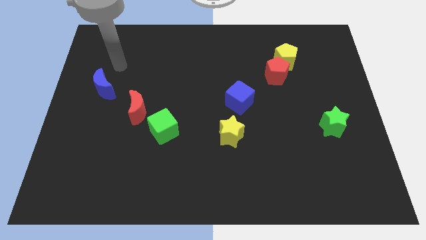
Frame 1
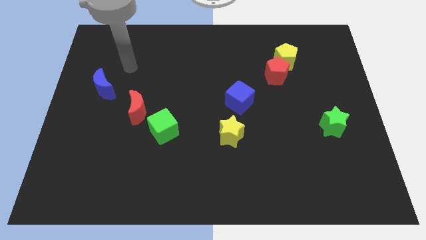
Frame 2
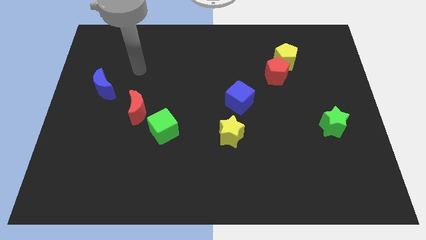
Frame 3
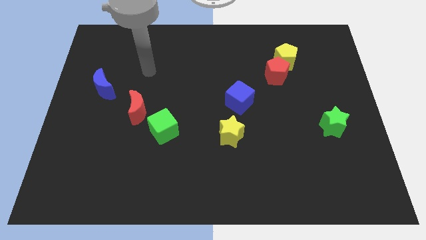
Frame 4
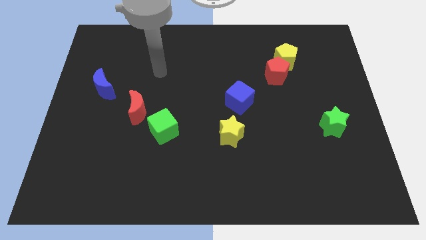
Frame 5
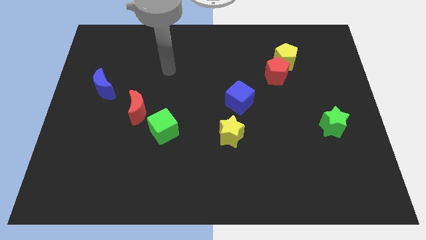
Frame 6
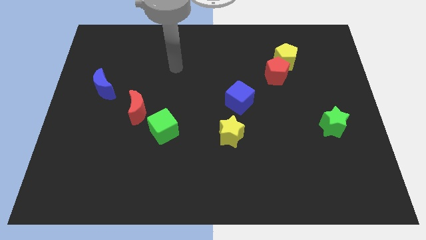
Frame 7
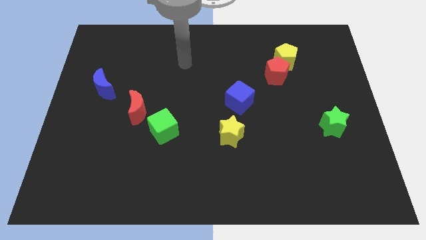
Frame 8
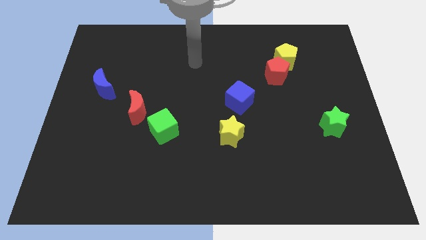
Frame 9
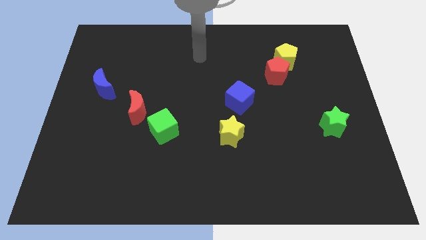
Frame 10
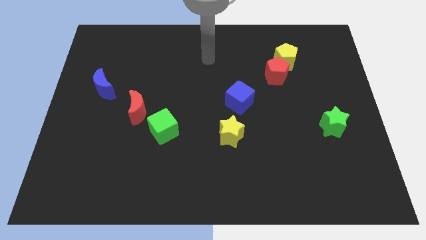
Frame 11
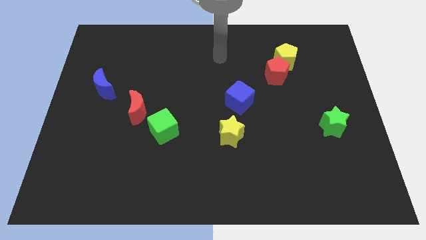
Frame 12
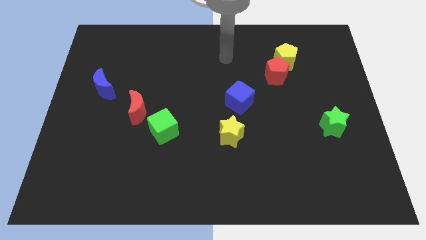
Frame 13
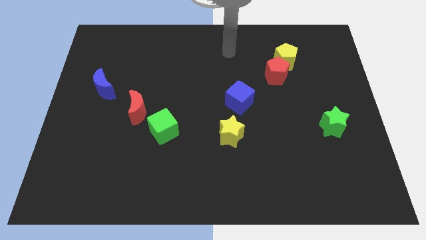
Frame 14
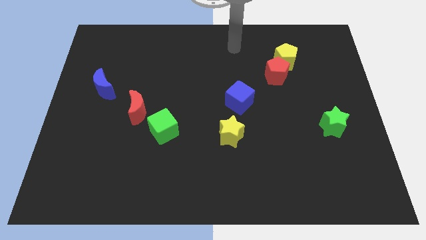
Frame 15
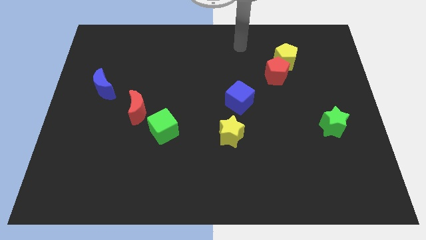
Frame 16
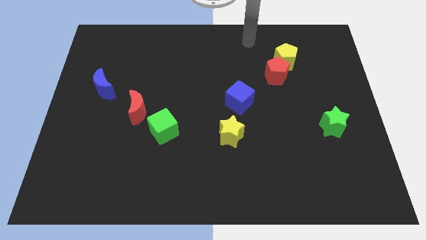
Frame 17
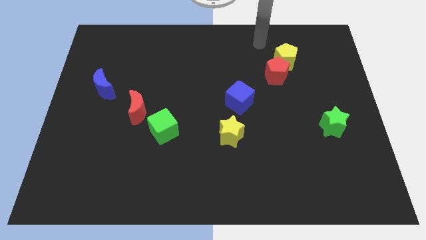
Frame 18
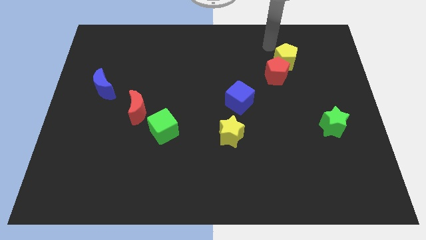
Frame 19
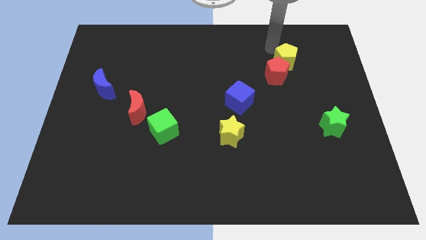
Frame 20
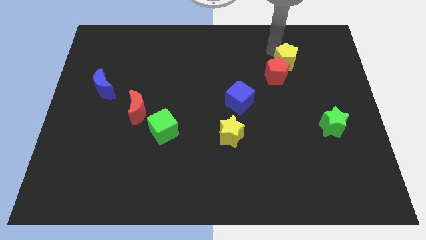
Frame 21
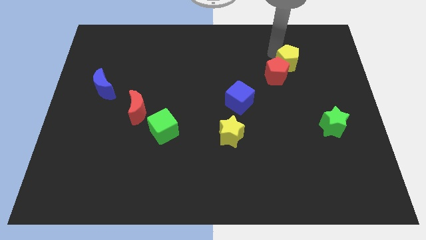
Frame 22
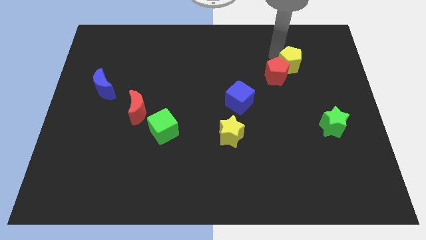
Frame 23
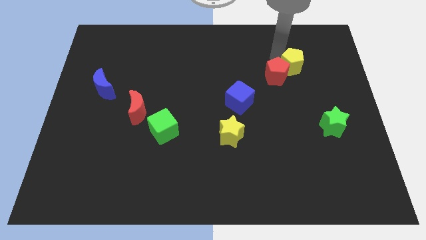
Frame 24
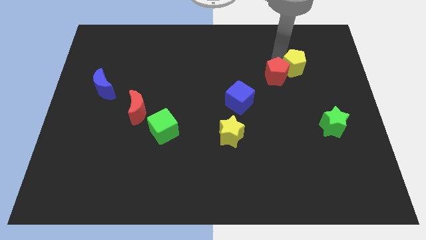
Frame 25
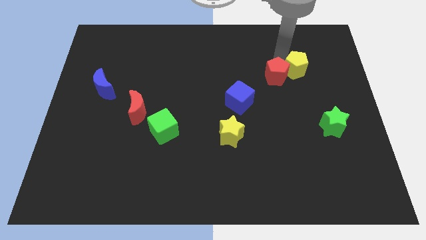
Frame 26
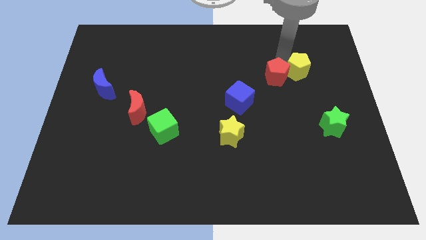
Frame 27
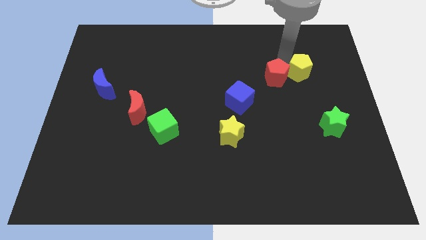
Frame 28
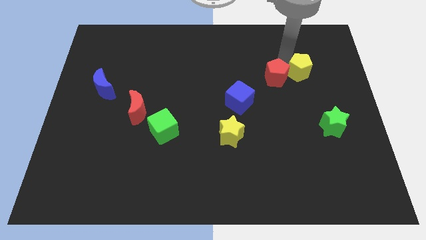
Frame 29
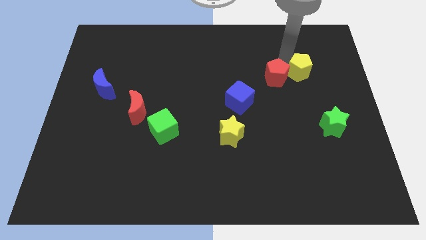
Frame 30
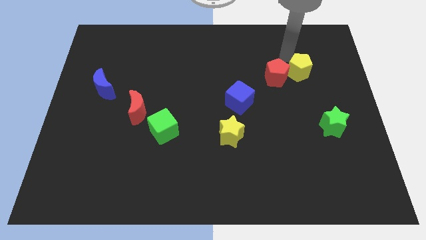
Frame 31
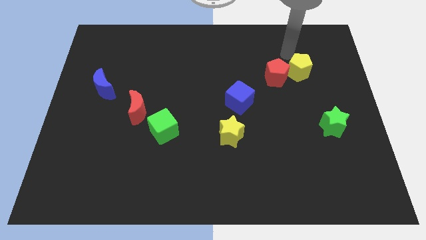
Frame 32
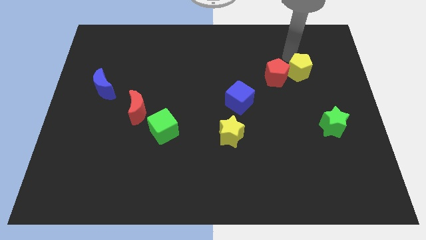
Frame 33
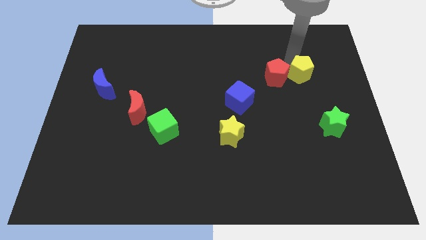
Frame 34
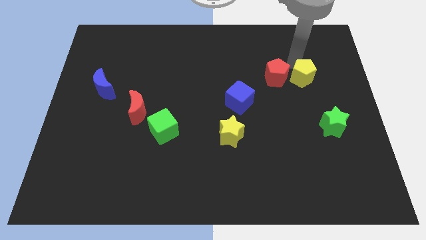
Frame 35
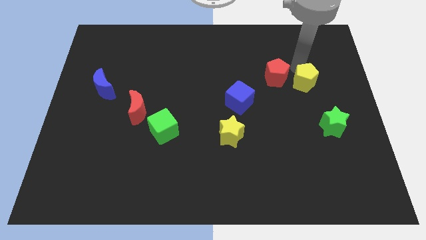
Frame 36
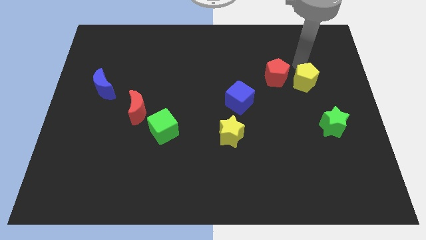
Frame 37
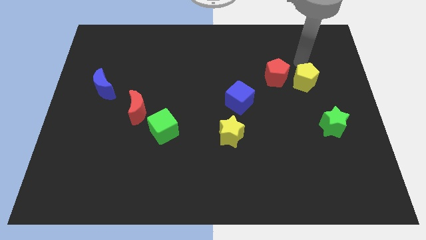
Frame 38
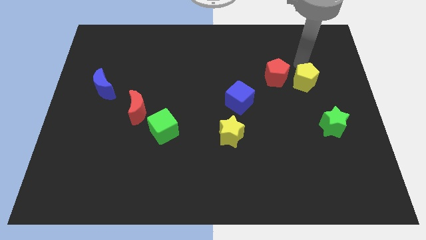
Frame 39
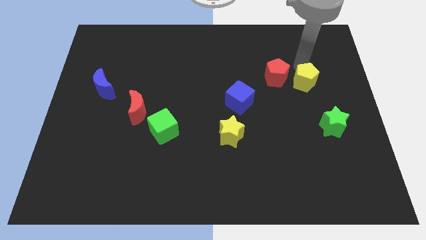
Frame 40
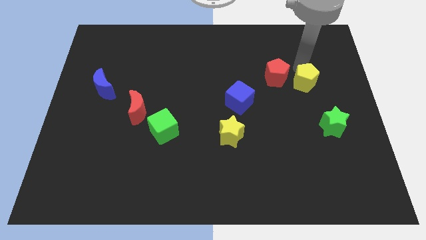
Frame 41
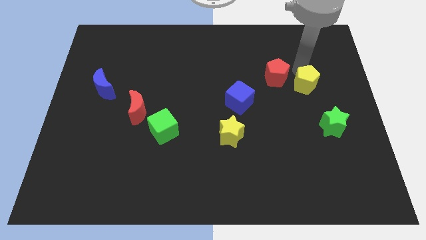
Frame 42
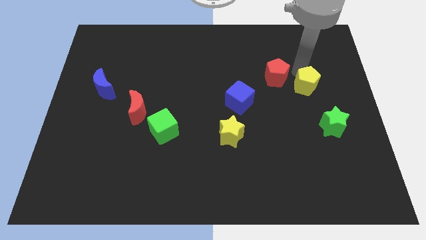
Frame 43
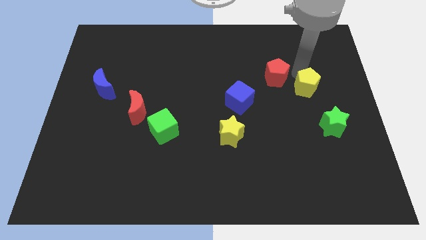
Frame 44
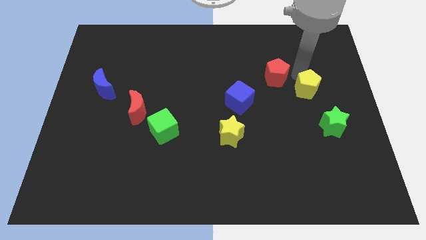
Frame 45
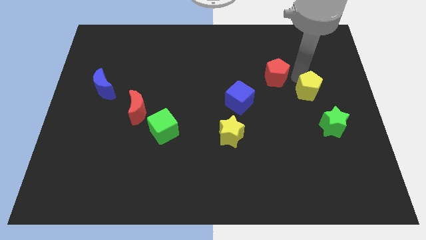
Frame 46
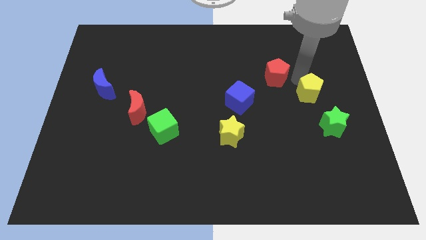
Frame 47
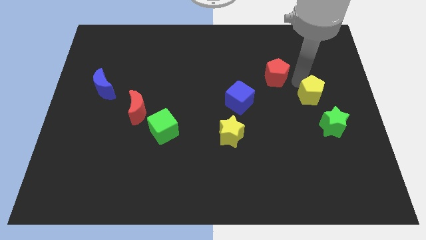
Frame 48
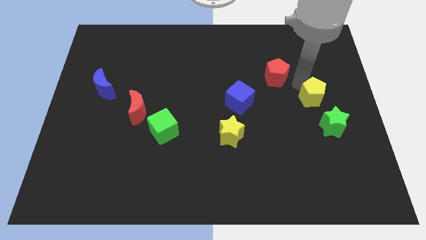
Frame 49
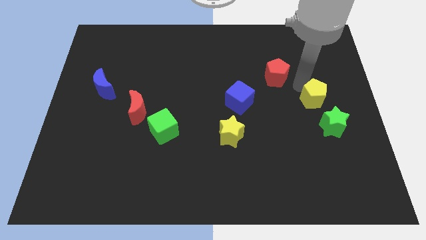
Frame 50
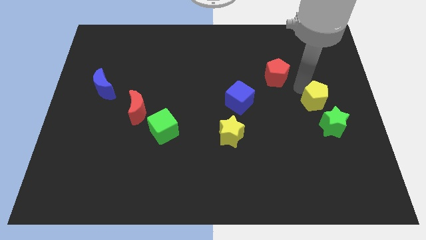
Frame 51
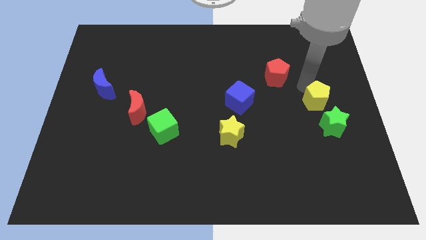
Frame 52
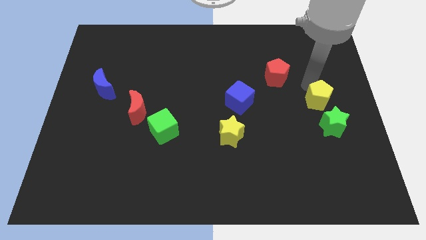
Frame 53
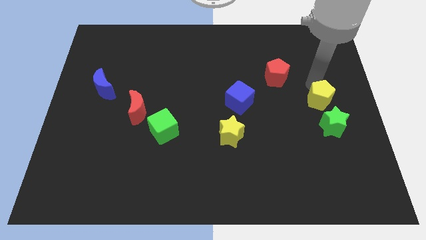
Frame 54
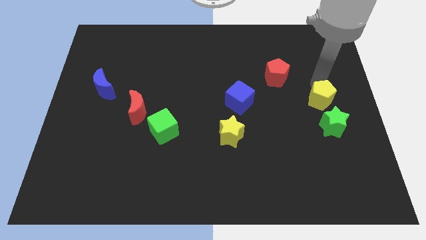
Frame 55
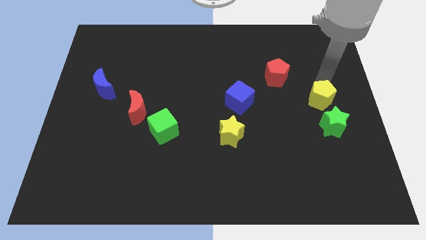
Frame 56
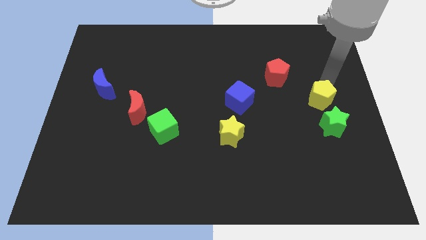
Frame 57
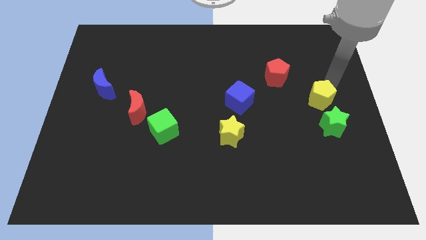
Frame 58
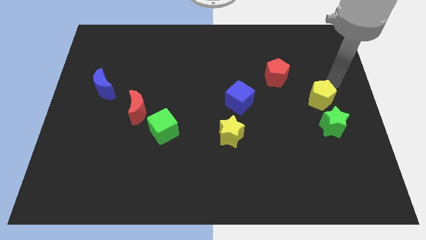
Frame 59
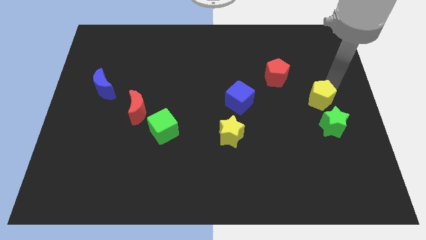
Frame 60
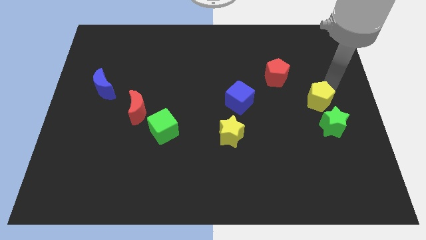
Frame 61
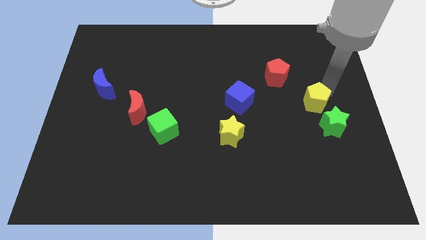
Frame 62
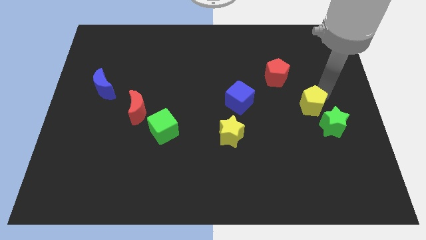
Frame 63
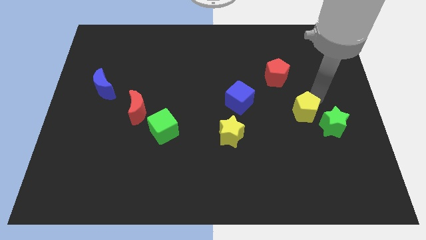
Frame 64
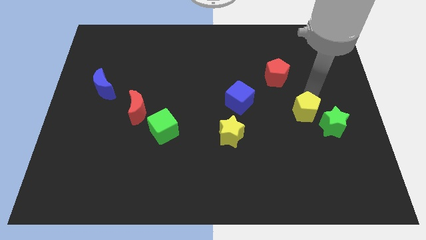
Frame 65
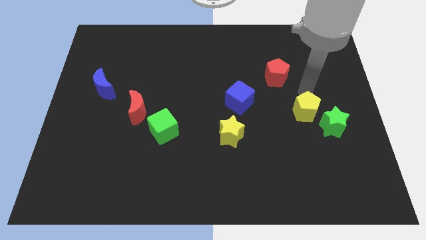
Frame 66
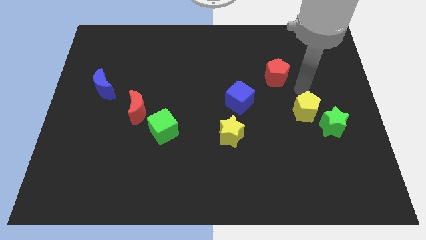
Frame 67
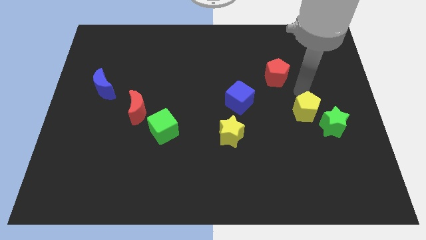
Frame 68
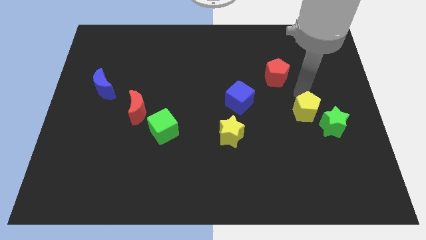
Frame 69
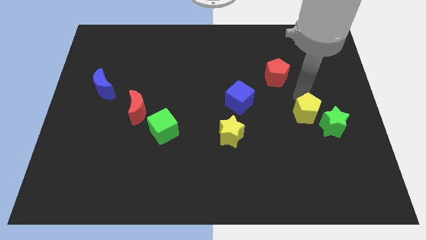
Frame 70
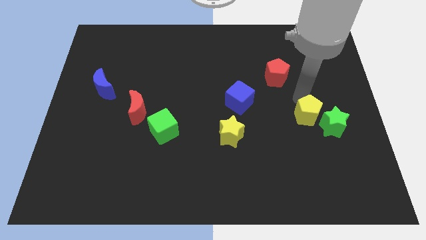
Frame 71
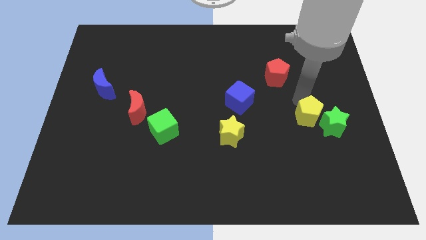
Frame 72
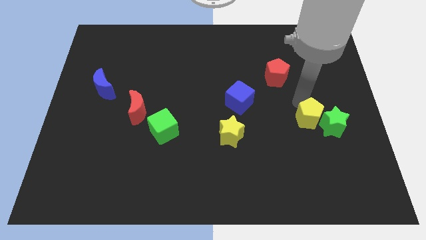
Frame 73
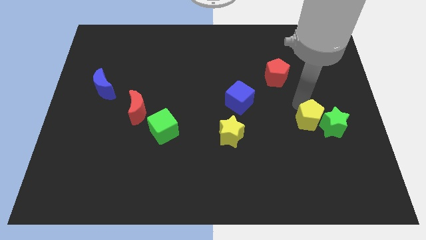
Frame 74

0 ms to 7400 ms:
move the yellow pentagon to the bottom left of the green star

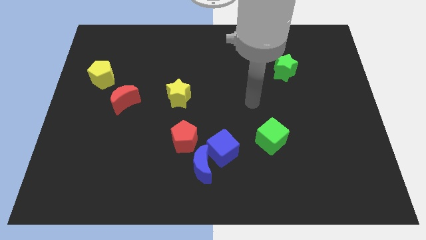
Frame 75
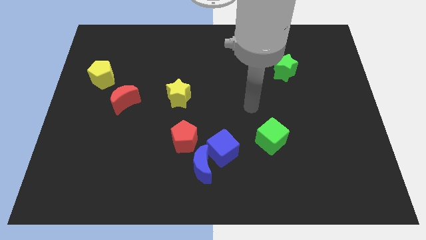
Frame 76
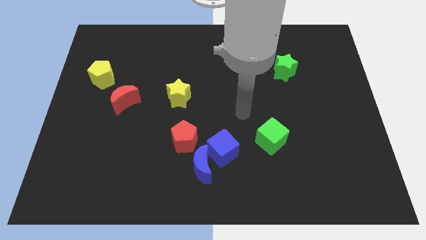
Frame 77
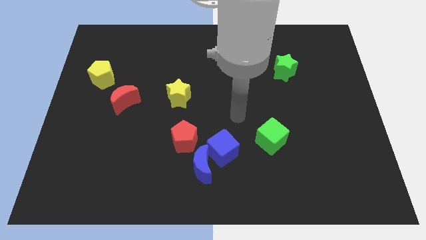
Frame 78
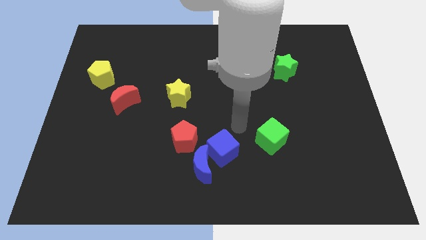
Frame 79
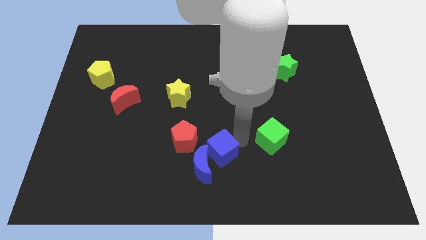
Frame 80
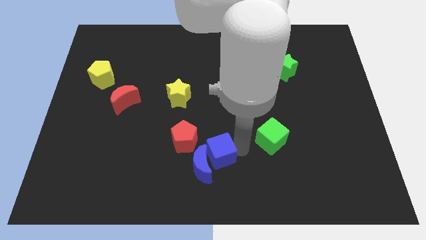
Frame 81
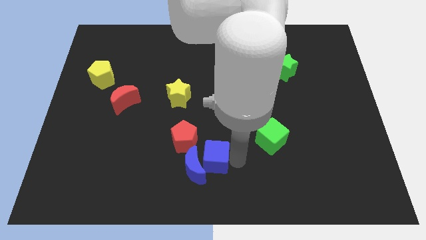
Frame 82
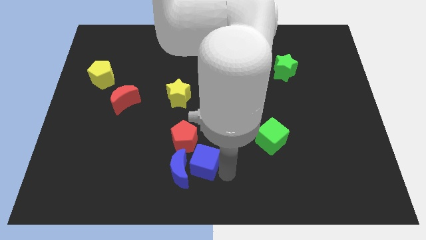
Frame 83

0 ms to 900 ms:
move the blue moon to the bottom left side of the red pentagon
